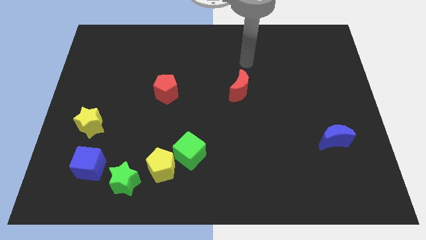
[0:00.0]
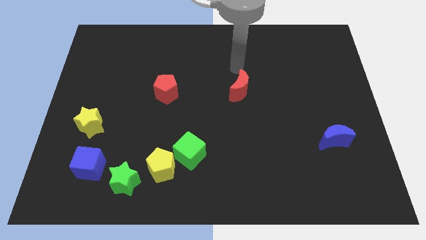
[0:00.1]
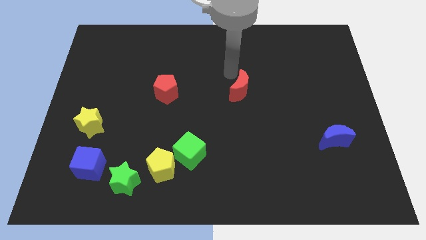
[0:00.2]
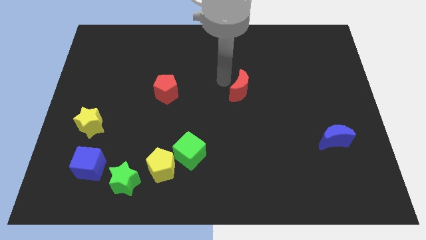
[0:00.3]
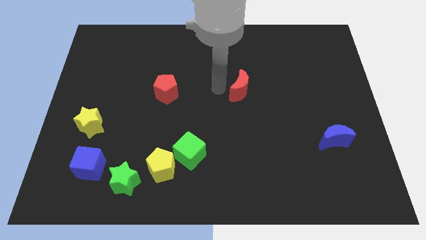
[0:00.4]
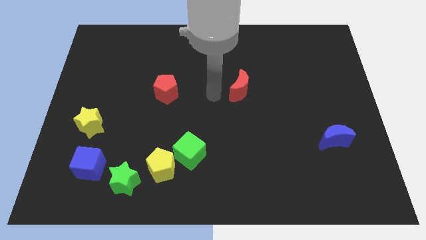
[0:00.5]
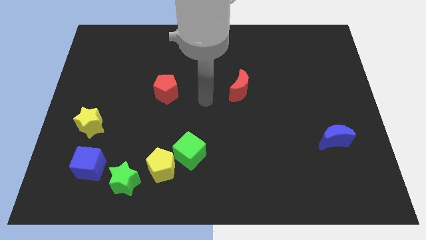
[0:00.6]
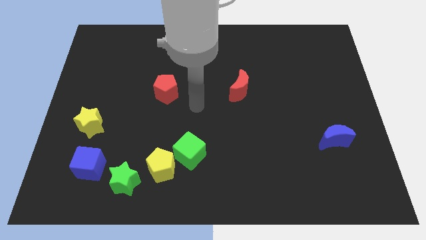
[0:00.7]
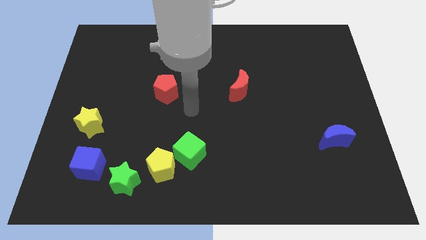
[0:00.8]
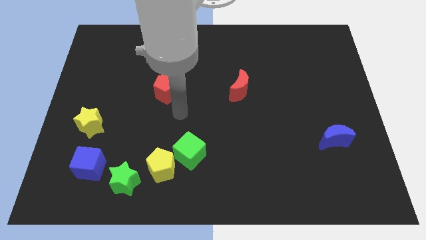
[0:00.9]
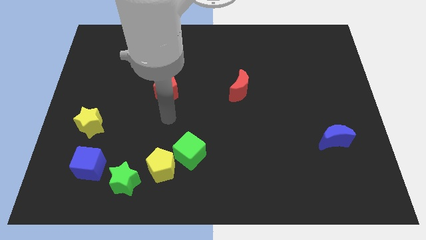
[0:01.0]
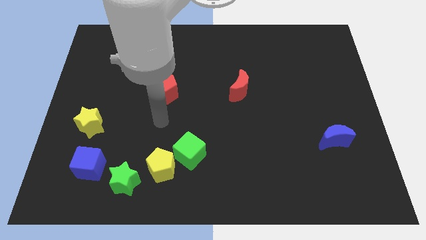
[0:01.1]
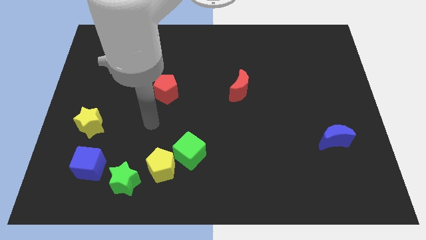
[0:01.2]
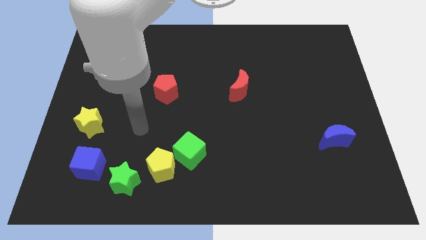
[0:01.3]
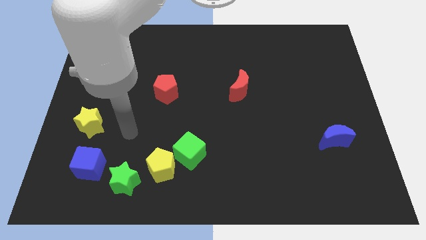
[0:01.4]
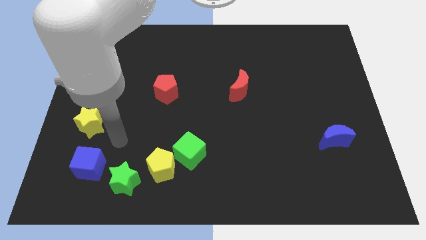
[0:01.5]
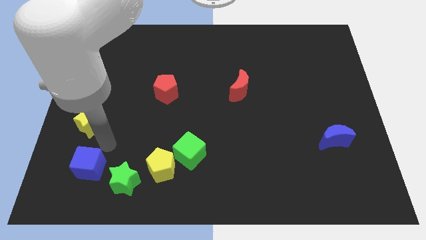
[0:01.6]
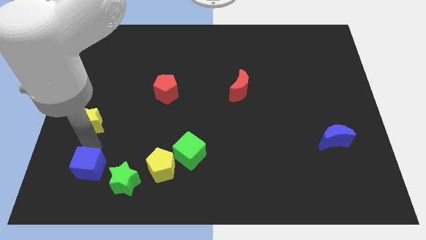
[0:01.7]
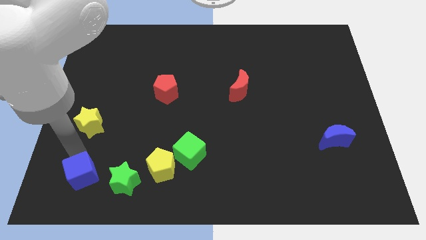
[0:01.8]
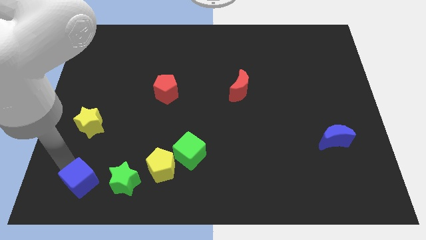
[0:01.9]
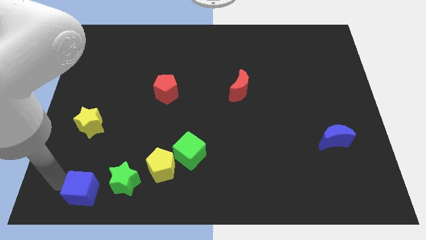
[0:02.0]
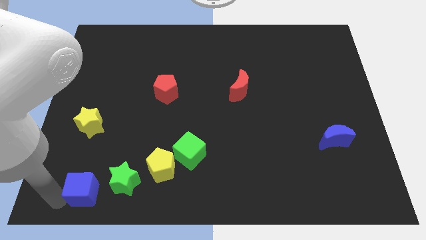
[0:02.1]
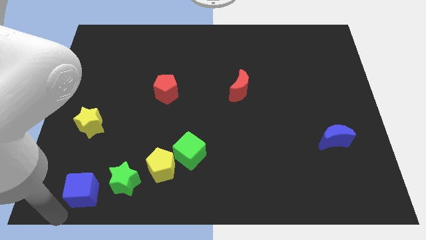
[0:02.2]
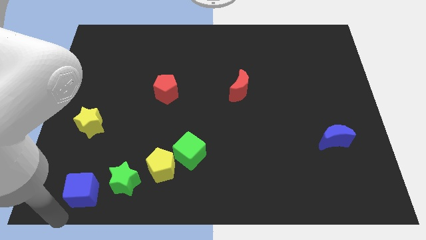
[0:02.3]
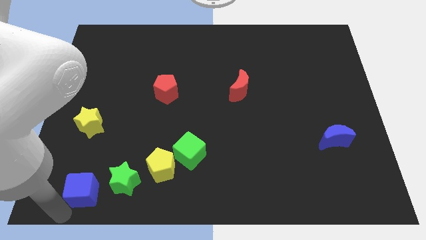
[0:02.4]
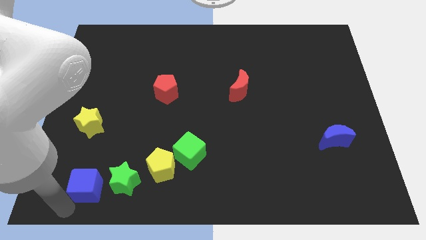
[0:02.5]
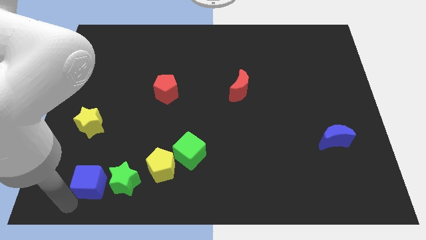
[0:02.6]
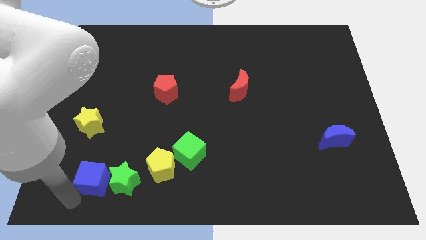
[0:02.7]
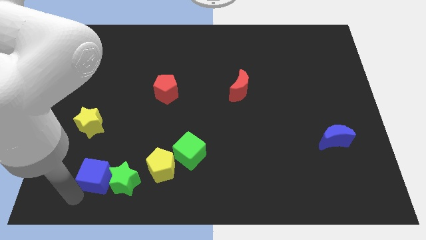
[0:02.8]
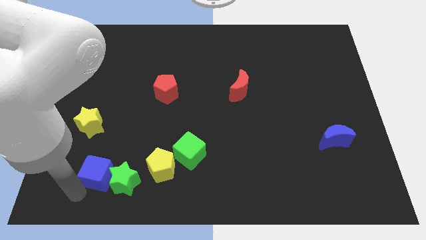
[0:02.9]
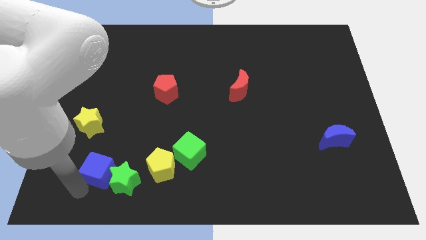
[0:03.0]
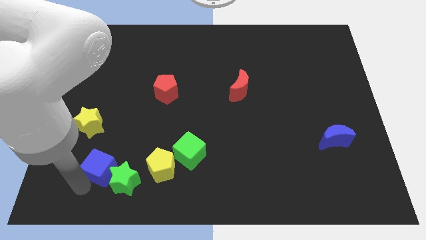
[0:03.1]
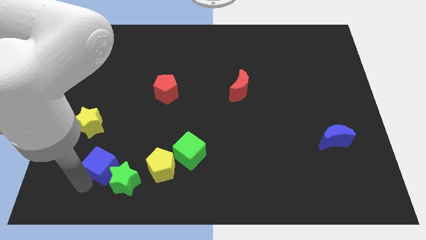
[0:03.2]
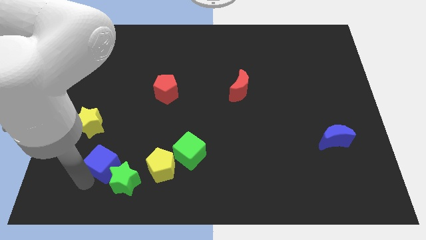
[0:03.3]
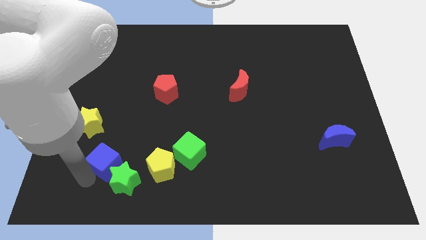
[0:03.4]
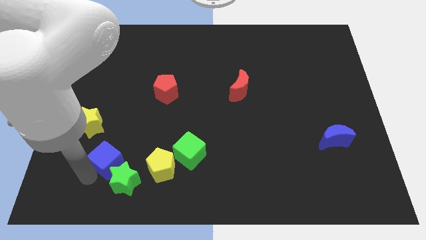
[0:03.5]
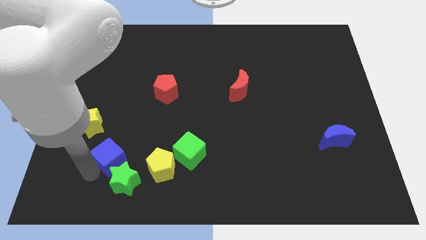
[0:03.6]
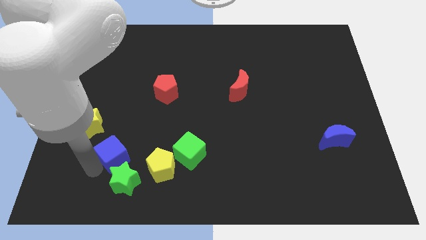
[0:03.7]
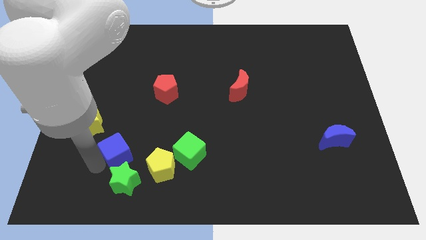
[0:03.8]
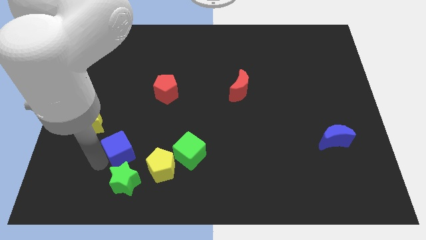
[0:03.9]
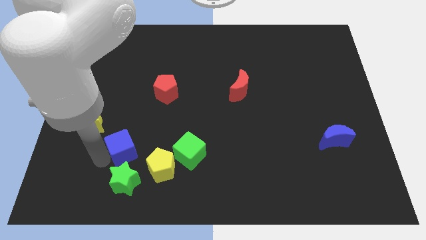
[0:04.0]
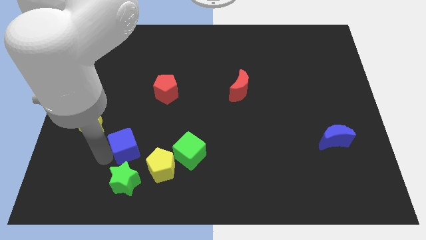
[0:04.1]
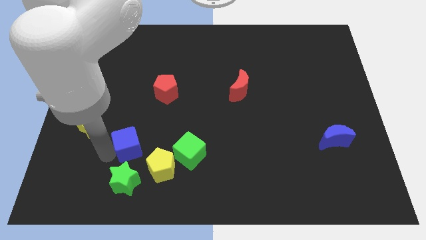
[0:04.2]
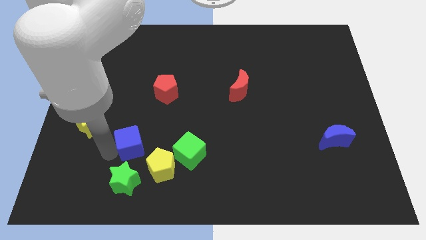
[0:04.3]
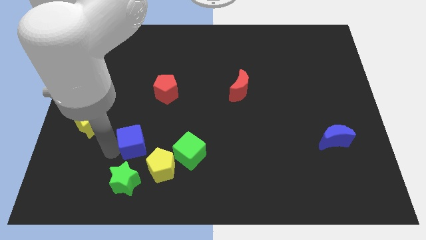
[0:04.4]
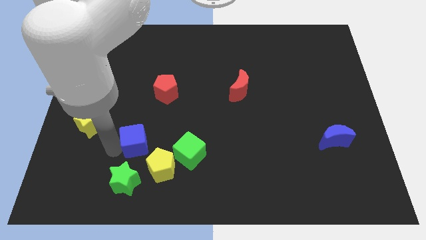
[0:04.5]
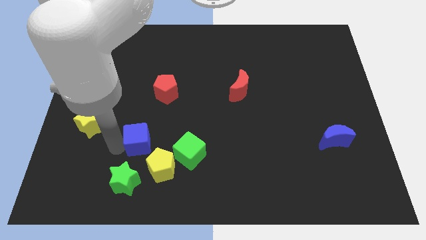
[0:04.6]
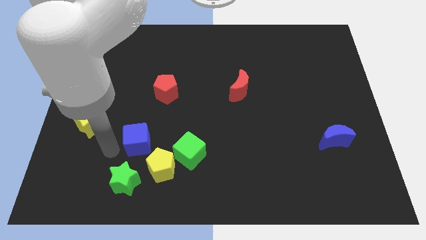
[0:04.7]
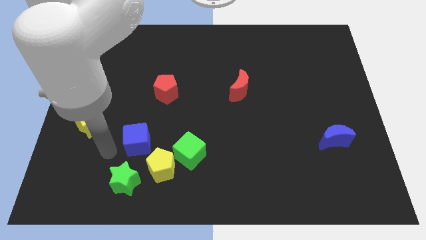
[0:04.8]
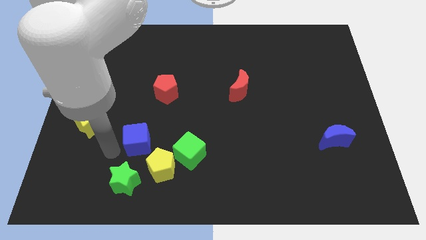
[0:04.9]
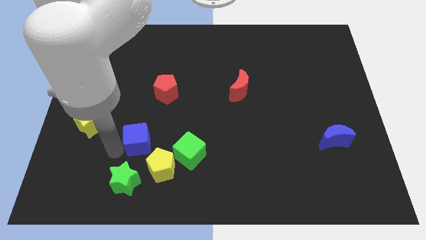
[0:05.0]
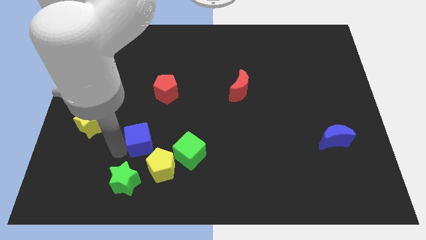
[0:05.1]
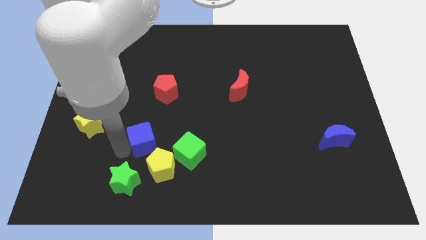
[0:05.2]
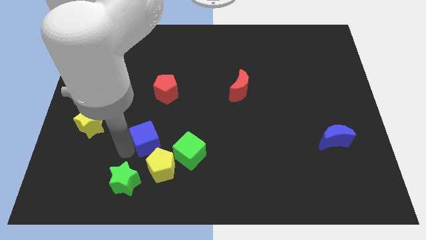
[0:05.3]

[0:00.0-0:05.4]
push the blue cube to the top left side of the green cube

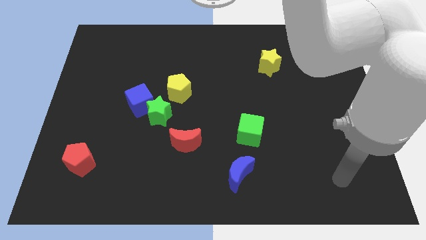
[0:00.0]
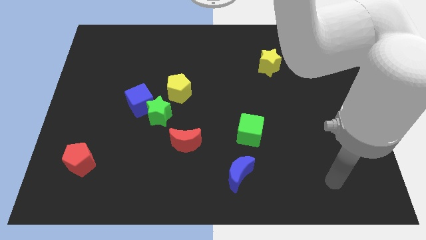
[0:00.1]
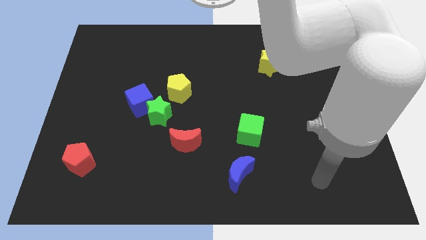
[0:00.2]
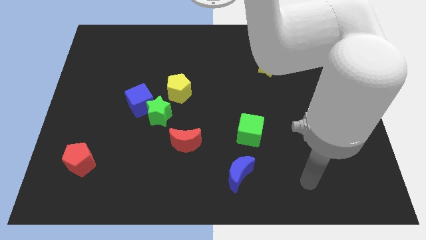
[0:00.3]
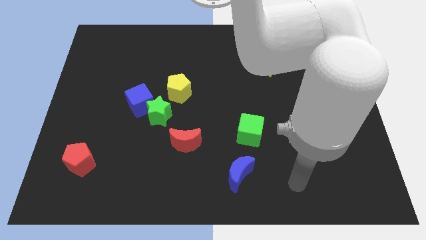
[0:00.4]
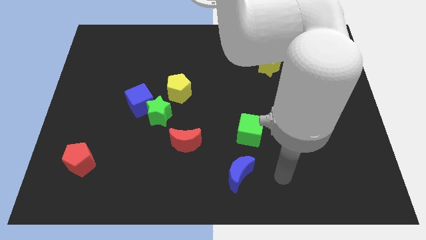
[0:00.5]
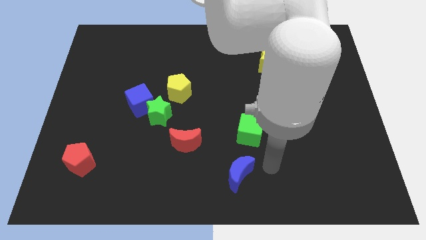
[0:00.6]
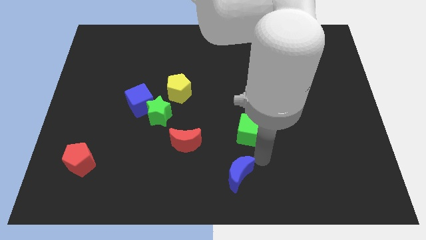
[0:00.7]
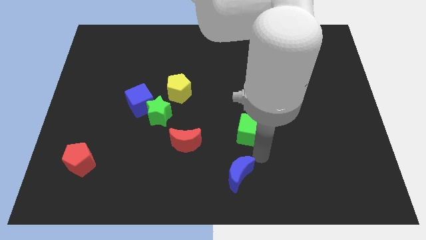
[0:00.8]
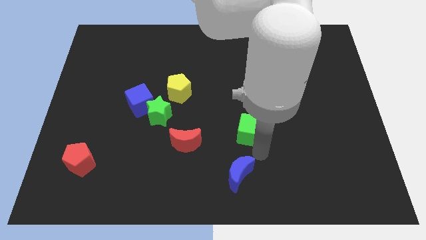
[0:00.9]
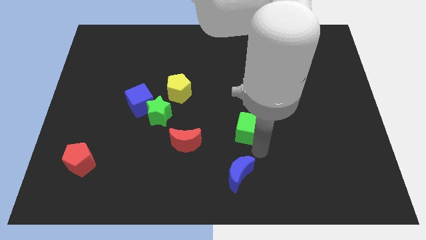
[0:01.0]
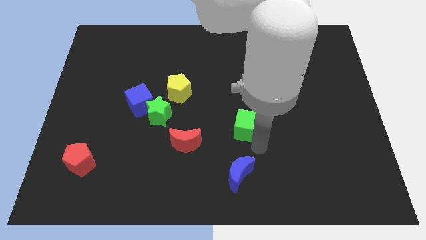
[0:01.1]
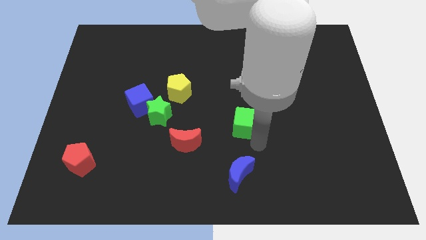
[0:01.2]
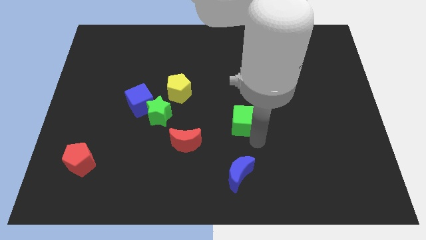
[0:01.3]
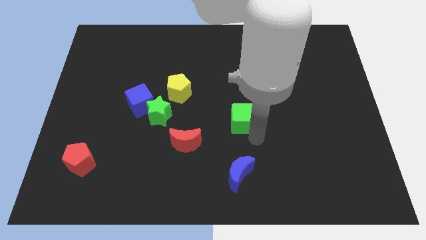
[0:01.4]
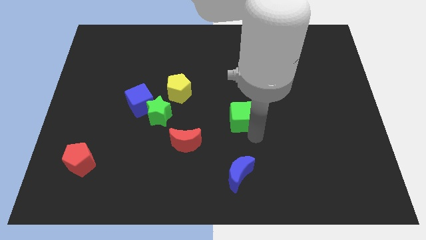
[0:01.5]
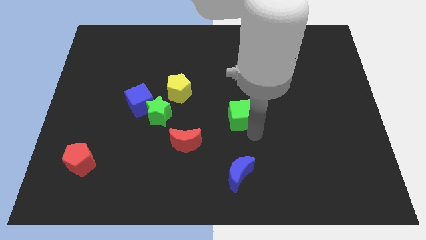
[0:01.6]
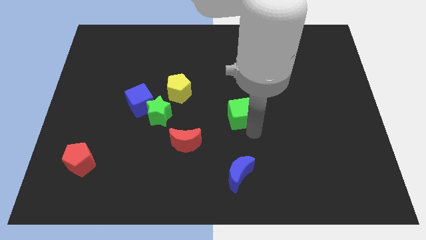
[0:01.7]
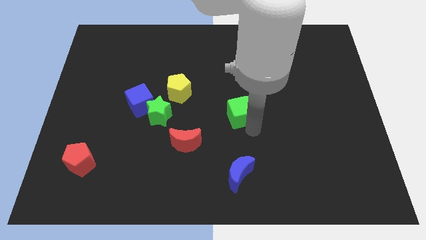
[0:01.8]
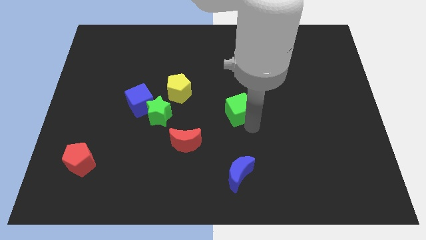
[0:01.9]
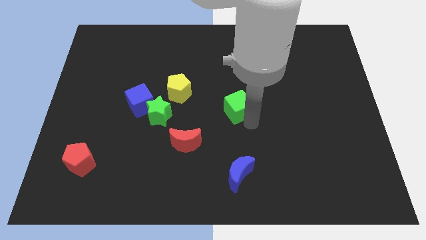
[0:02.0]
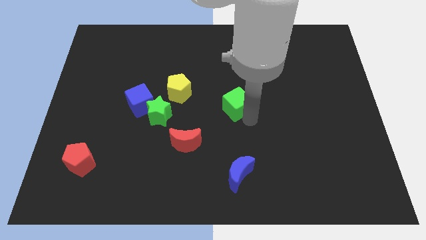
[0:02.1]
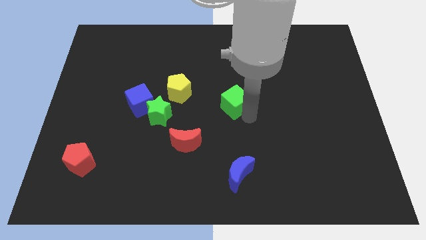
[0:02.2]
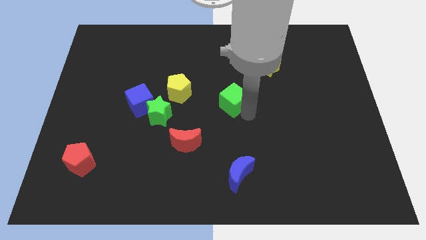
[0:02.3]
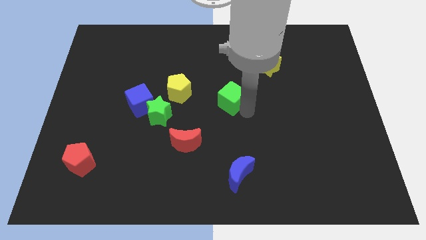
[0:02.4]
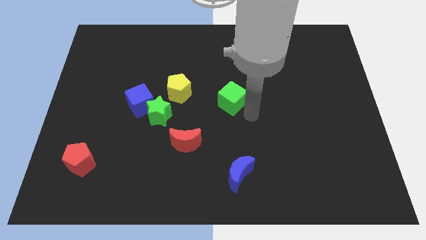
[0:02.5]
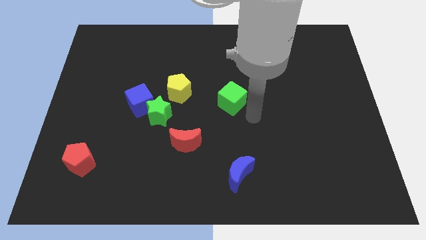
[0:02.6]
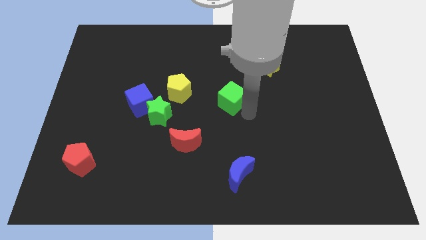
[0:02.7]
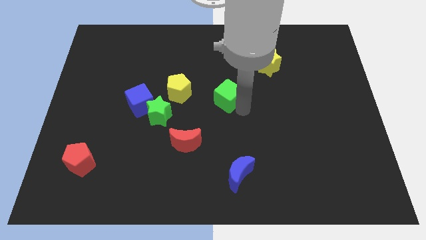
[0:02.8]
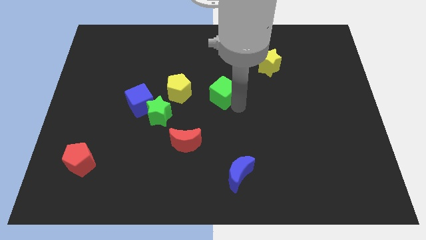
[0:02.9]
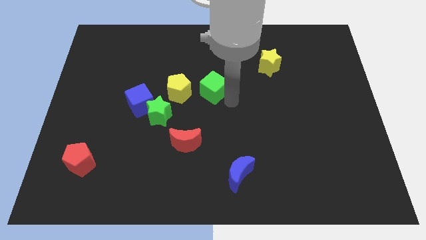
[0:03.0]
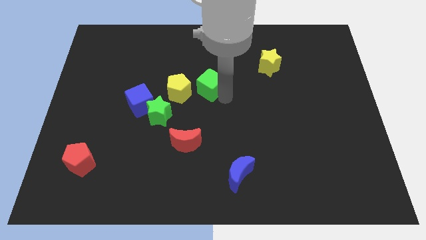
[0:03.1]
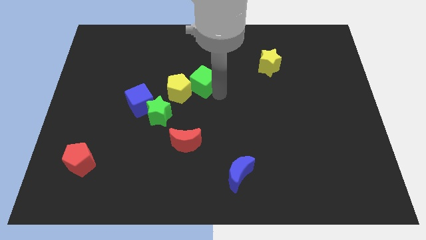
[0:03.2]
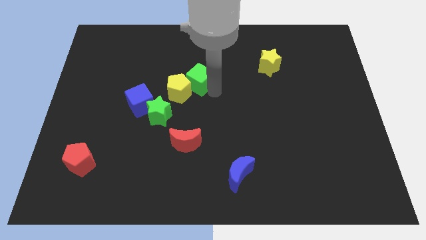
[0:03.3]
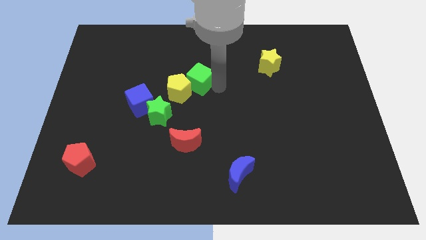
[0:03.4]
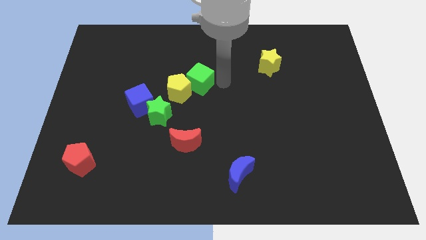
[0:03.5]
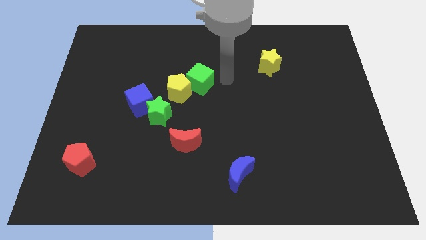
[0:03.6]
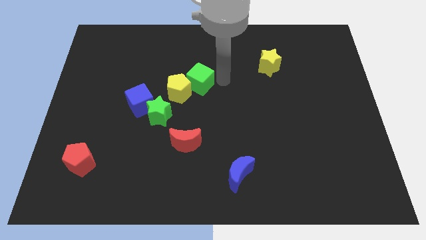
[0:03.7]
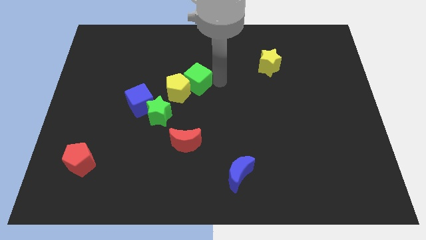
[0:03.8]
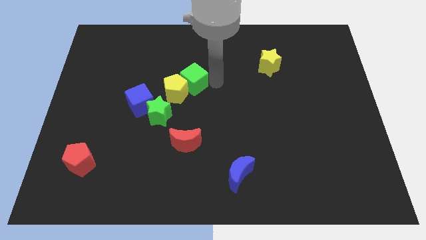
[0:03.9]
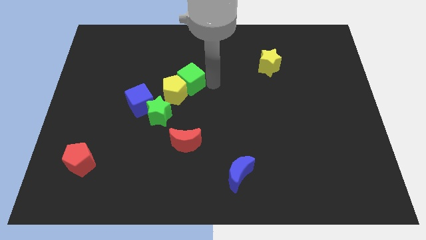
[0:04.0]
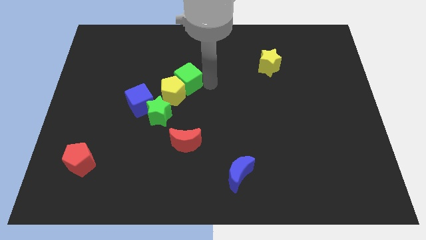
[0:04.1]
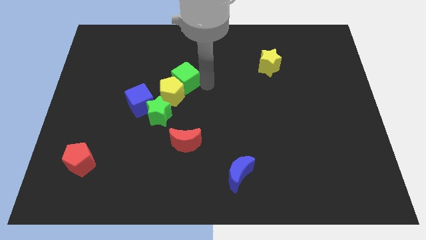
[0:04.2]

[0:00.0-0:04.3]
put the green cube to the top right side of the blue cube
